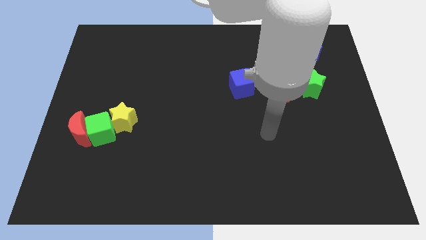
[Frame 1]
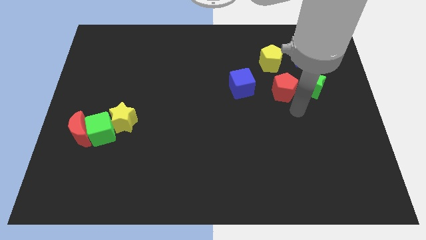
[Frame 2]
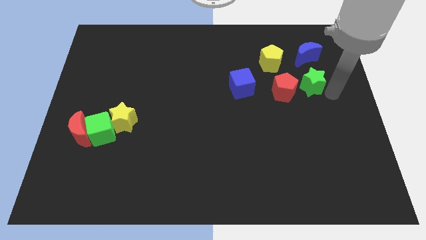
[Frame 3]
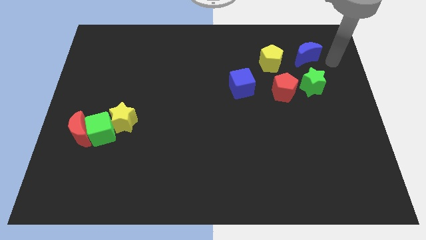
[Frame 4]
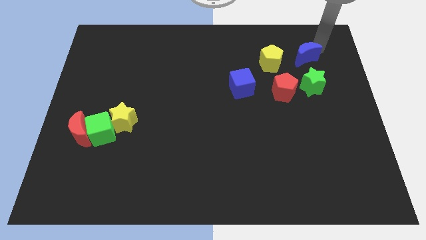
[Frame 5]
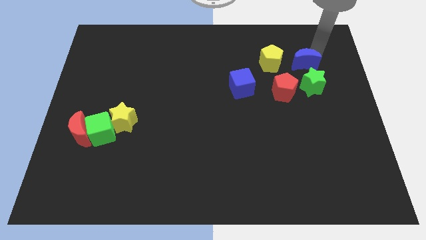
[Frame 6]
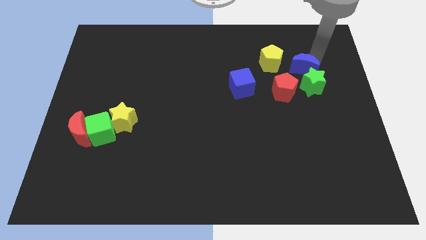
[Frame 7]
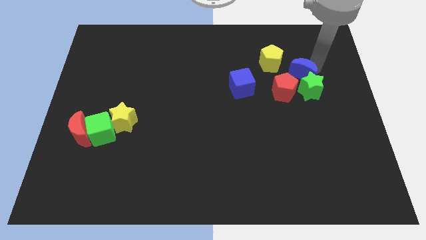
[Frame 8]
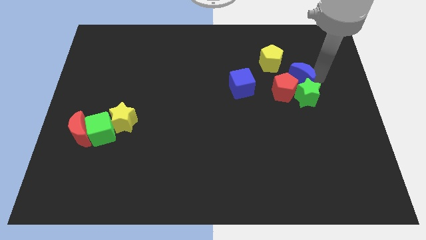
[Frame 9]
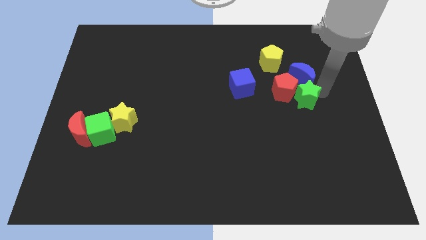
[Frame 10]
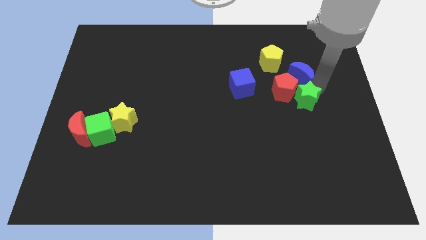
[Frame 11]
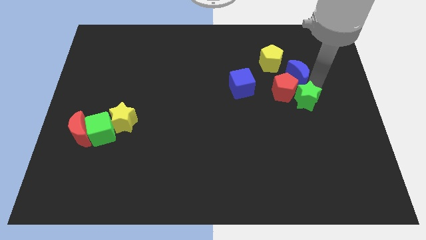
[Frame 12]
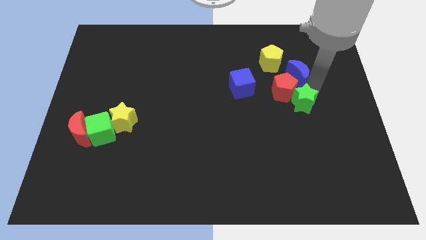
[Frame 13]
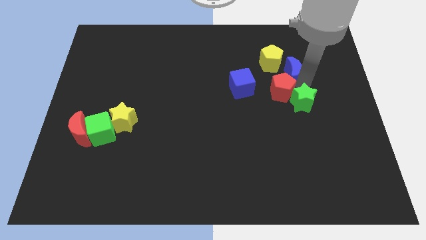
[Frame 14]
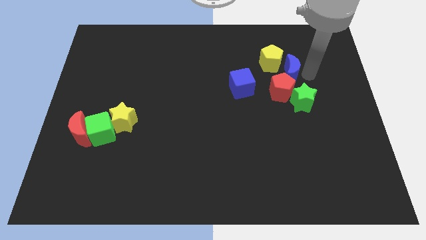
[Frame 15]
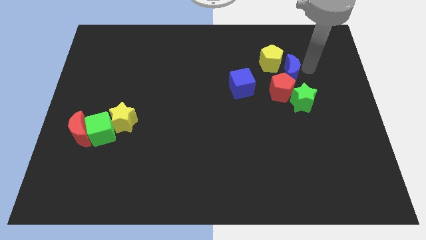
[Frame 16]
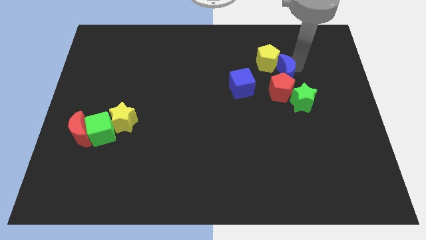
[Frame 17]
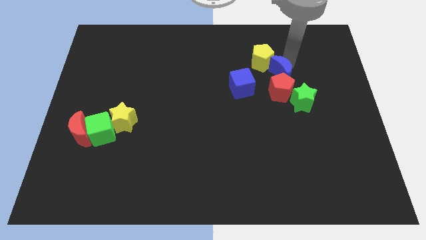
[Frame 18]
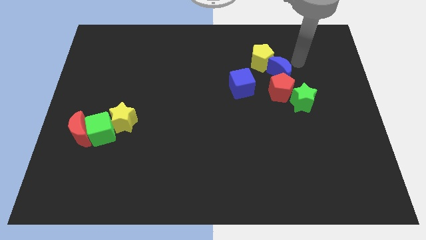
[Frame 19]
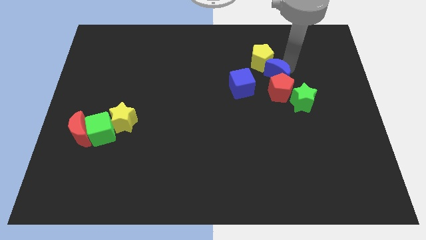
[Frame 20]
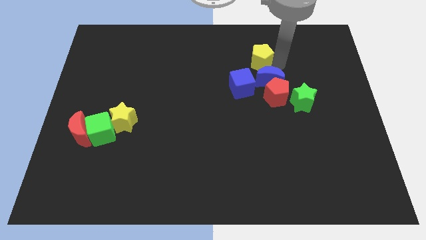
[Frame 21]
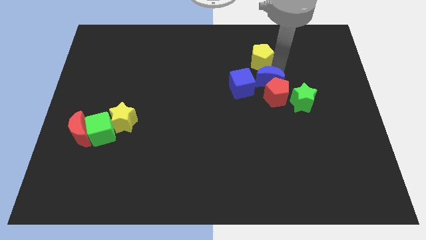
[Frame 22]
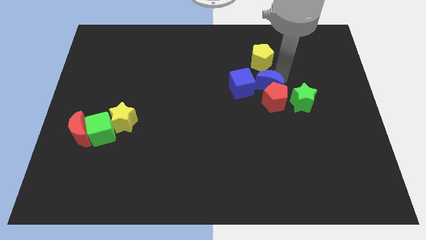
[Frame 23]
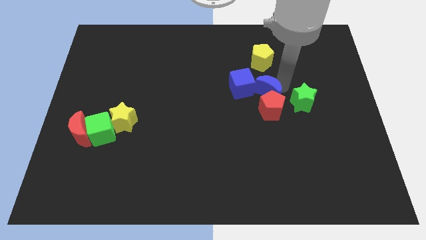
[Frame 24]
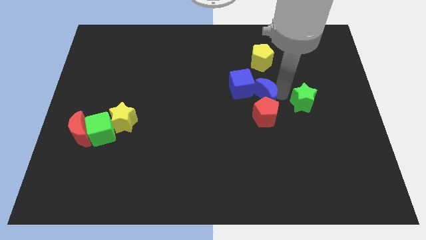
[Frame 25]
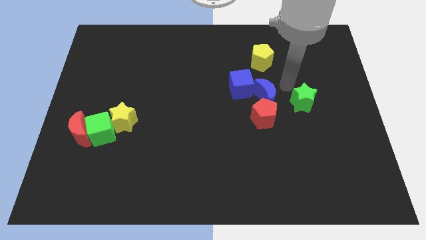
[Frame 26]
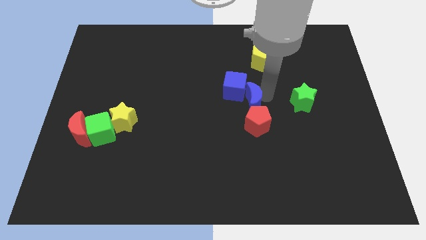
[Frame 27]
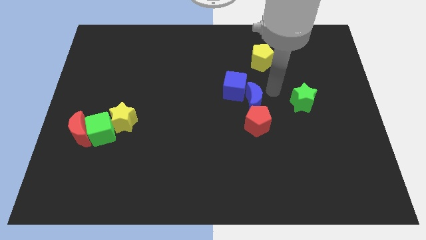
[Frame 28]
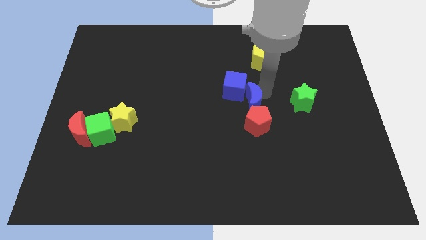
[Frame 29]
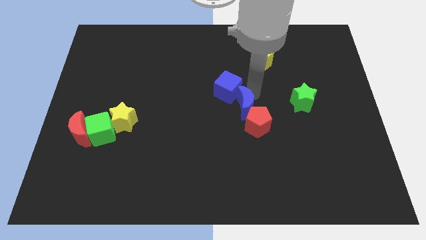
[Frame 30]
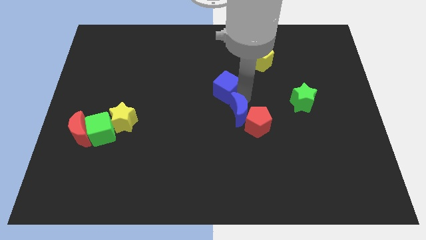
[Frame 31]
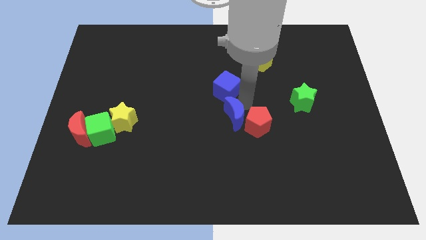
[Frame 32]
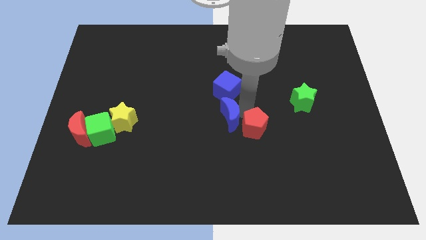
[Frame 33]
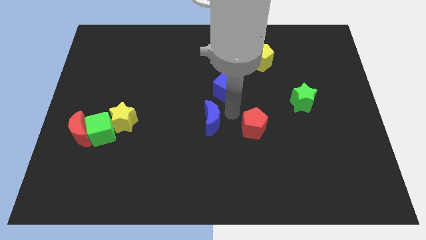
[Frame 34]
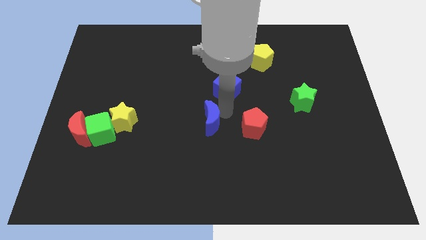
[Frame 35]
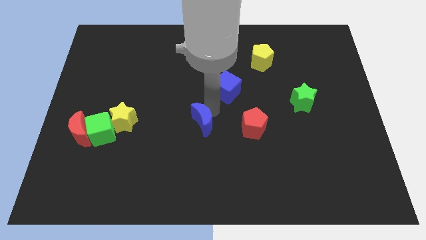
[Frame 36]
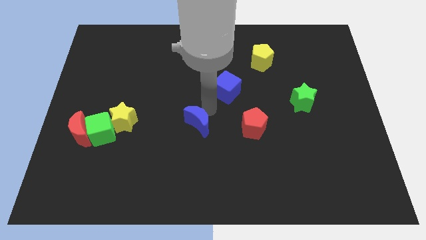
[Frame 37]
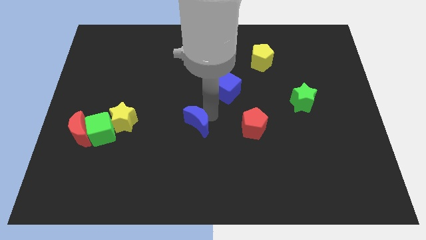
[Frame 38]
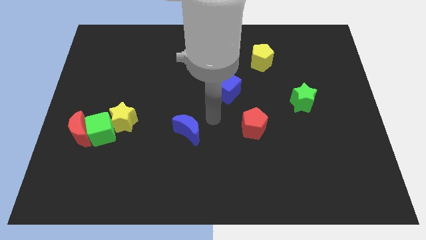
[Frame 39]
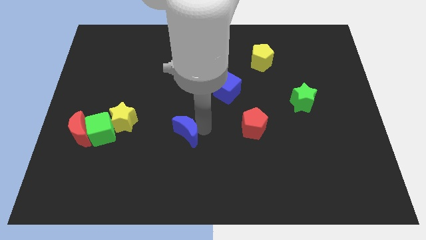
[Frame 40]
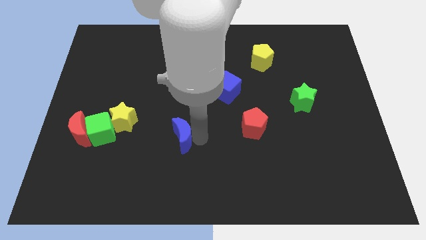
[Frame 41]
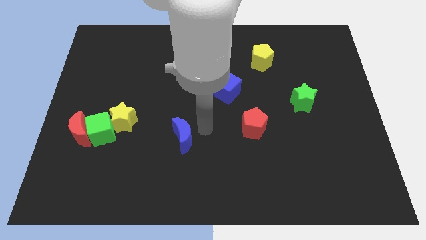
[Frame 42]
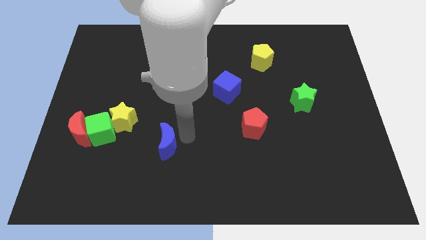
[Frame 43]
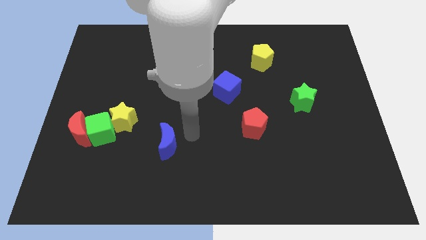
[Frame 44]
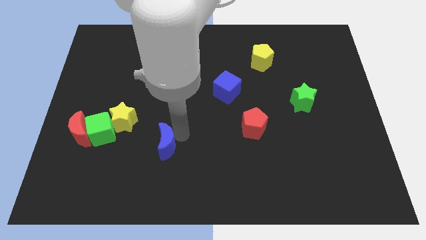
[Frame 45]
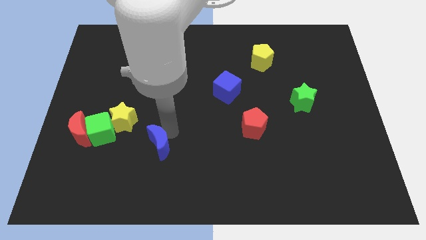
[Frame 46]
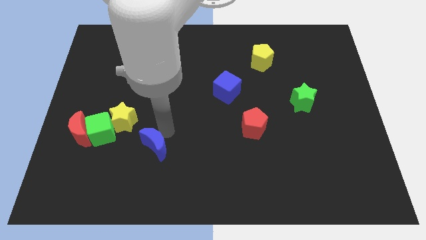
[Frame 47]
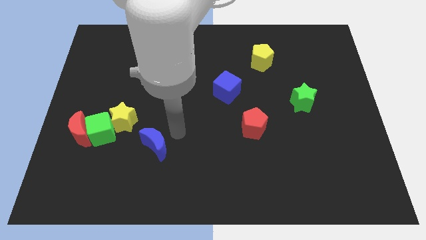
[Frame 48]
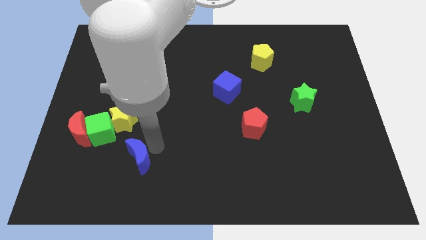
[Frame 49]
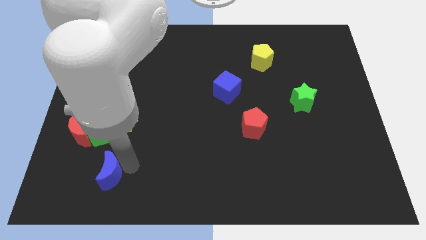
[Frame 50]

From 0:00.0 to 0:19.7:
put the blue moon to the bottom side of the green cube
